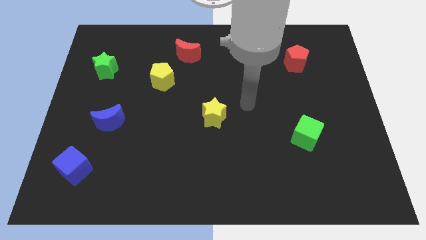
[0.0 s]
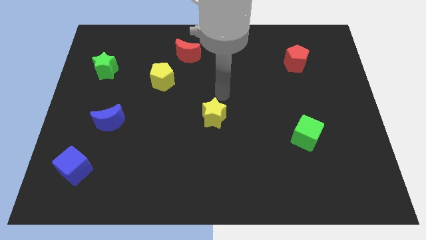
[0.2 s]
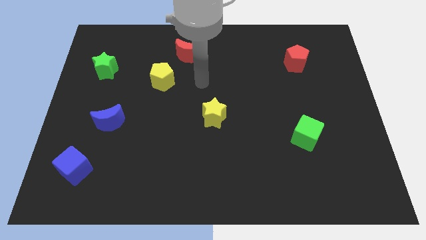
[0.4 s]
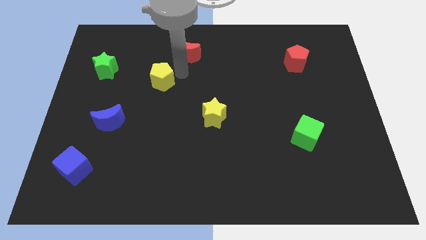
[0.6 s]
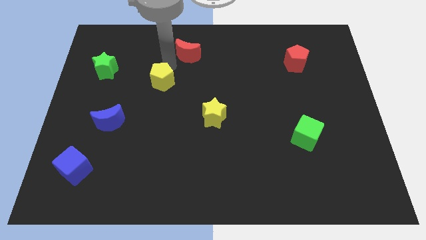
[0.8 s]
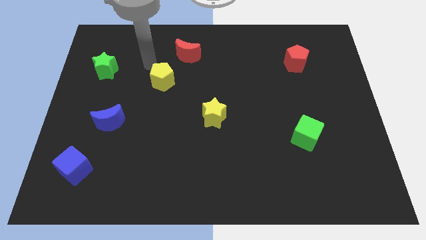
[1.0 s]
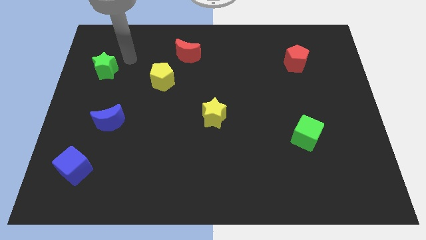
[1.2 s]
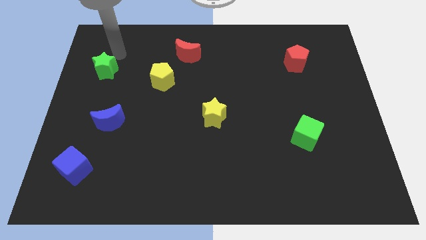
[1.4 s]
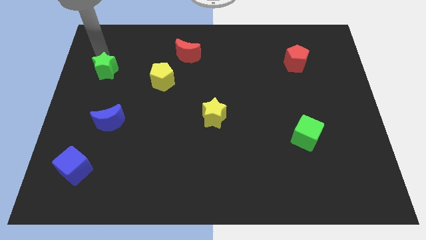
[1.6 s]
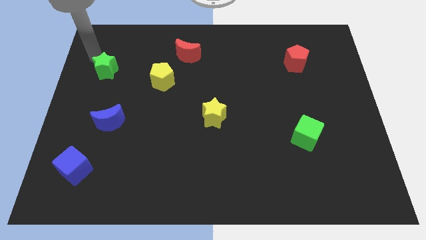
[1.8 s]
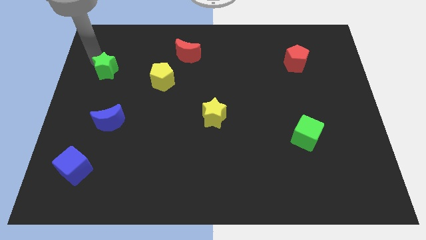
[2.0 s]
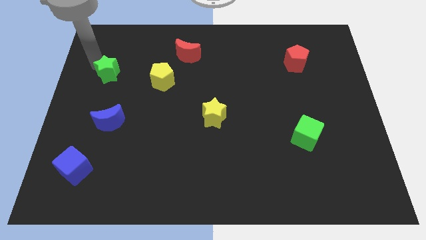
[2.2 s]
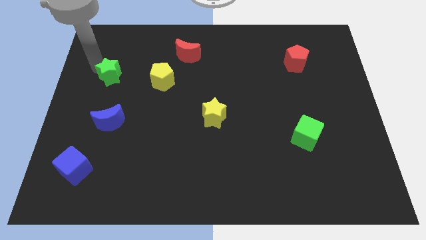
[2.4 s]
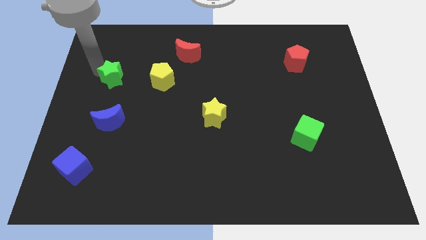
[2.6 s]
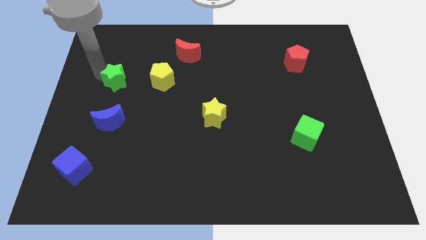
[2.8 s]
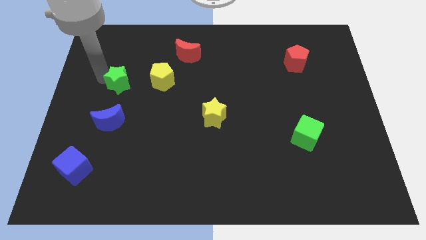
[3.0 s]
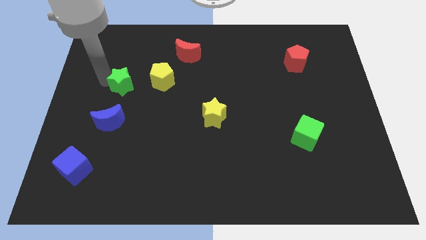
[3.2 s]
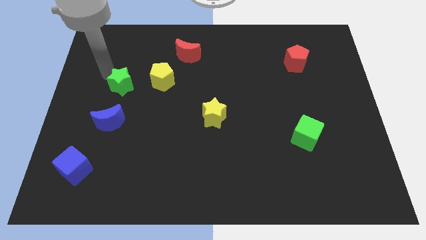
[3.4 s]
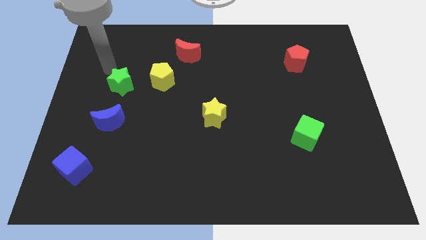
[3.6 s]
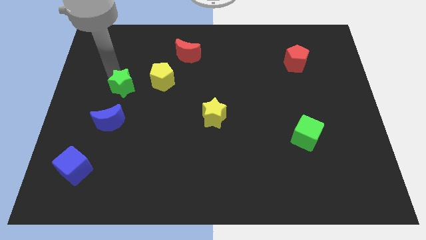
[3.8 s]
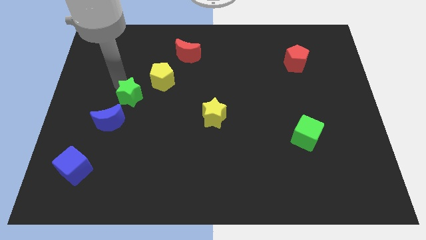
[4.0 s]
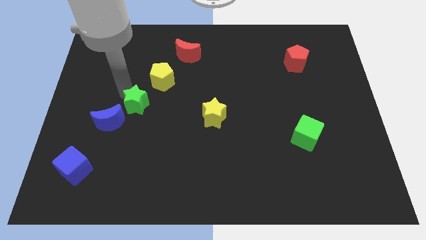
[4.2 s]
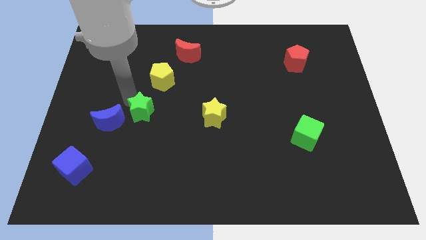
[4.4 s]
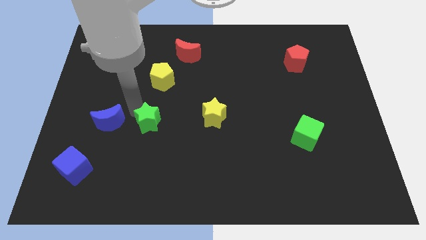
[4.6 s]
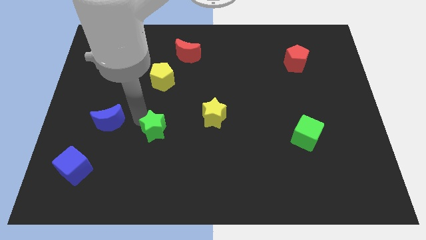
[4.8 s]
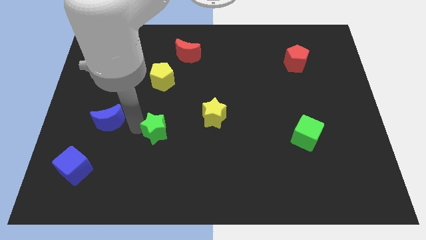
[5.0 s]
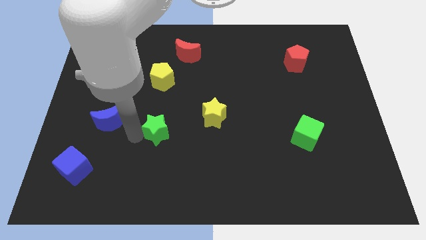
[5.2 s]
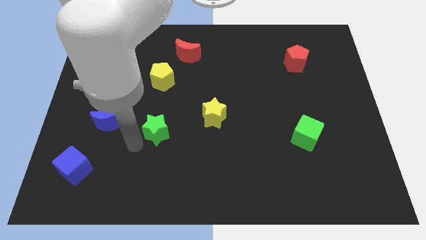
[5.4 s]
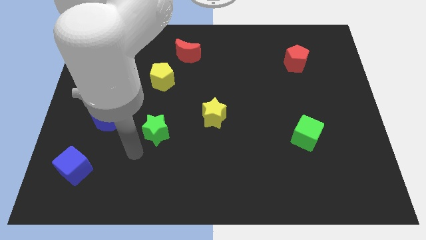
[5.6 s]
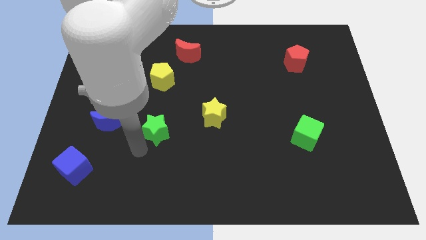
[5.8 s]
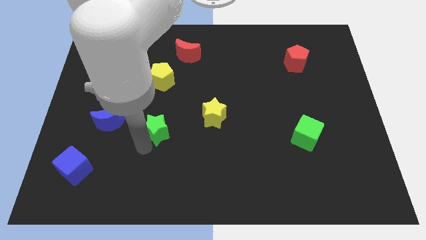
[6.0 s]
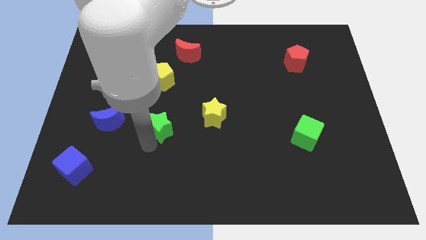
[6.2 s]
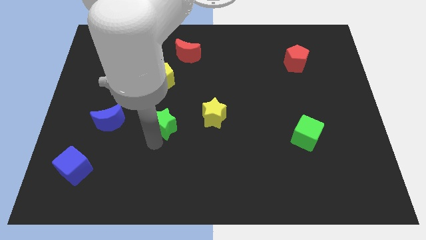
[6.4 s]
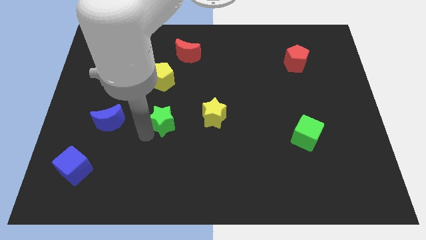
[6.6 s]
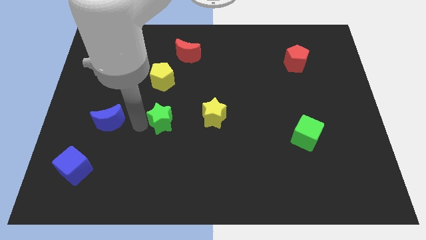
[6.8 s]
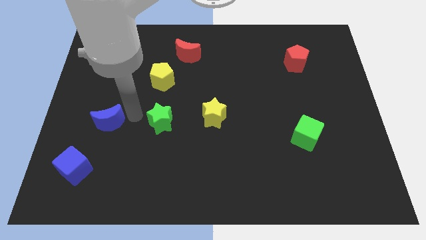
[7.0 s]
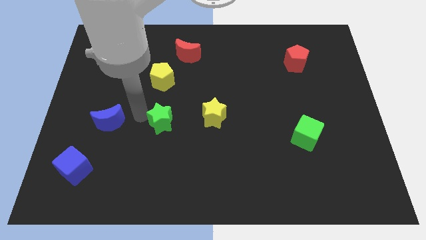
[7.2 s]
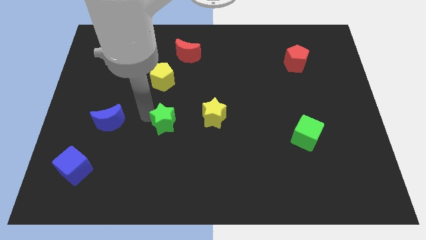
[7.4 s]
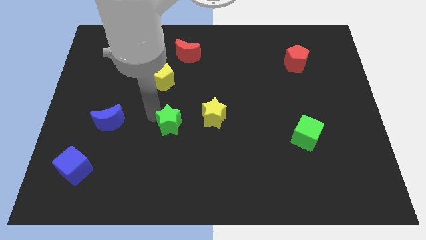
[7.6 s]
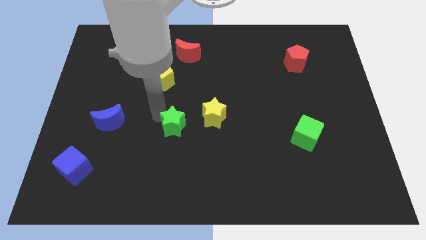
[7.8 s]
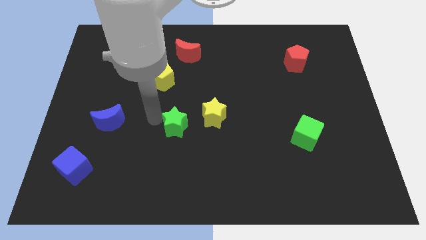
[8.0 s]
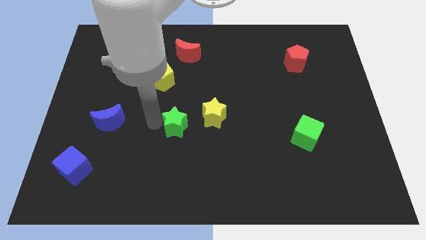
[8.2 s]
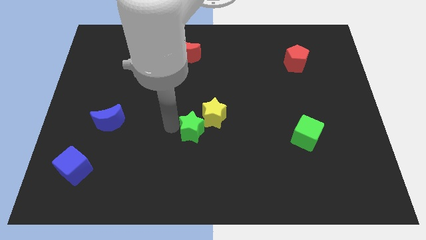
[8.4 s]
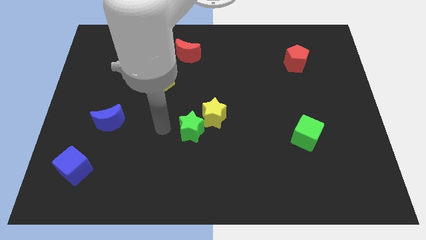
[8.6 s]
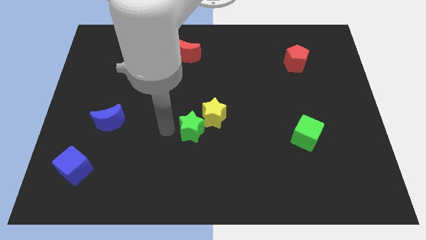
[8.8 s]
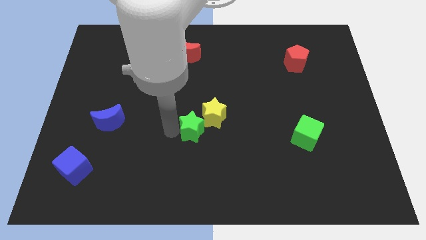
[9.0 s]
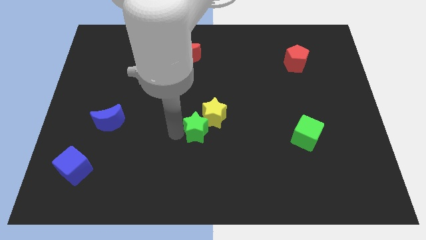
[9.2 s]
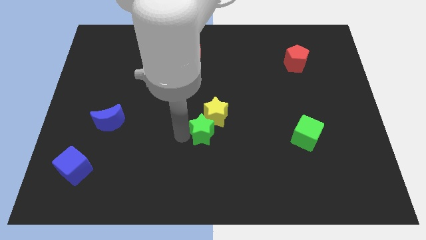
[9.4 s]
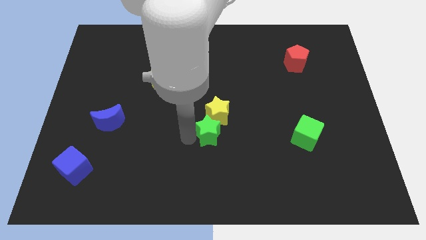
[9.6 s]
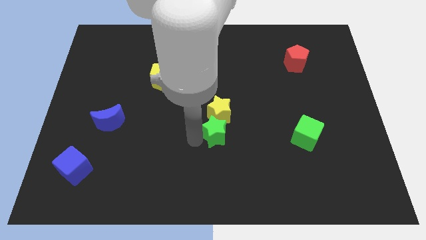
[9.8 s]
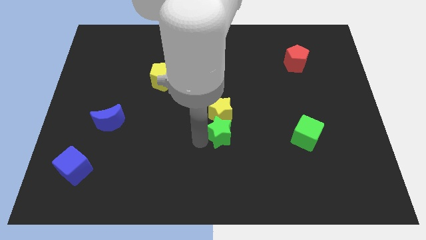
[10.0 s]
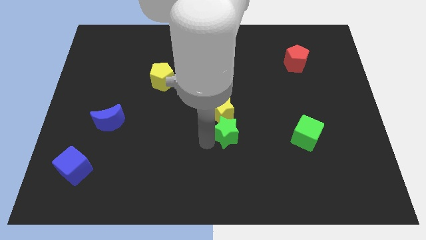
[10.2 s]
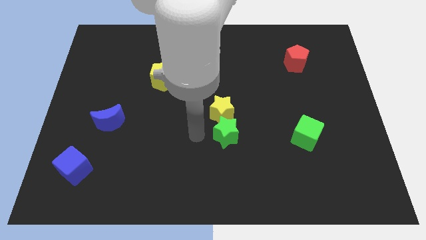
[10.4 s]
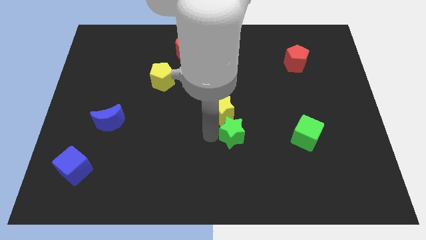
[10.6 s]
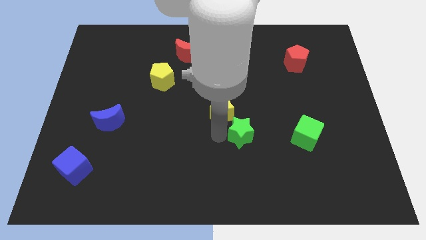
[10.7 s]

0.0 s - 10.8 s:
push the green star to the left of the green cube

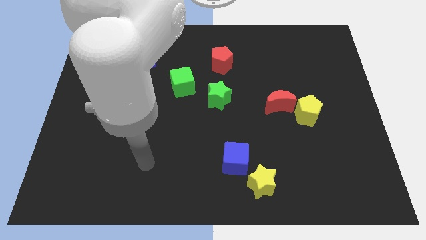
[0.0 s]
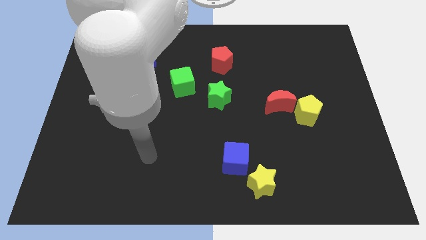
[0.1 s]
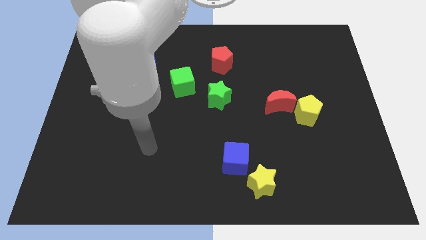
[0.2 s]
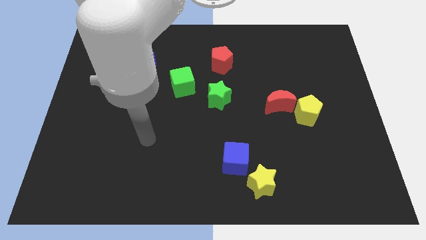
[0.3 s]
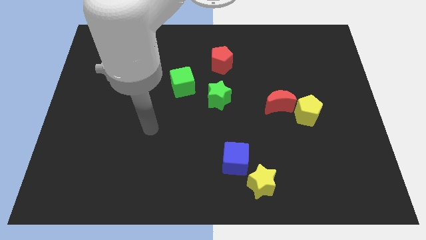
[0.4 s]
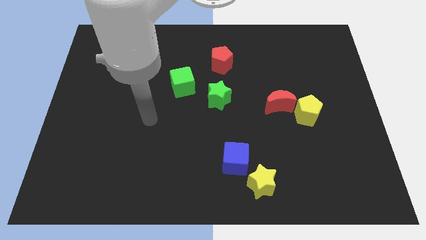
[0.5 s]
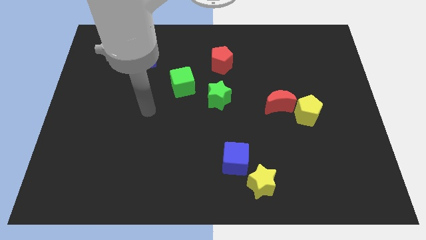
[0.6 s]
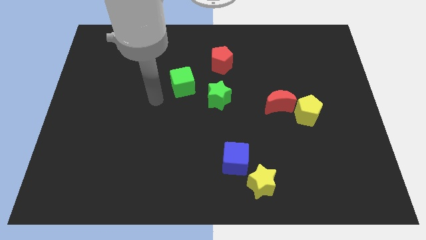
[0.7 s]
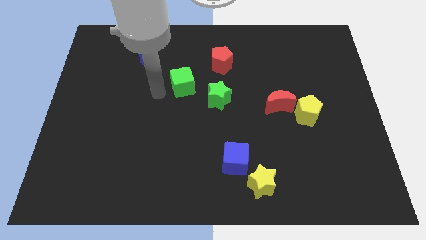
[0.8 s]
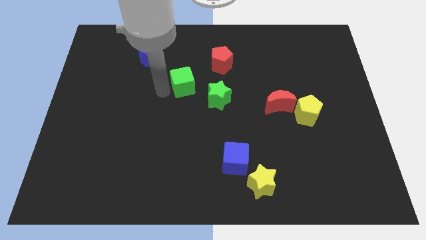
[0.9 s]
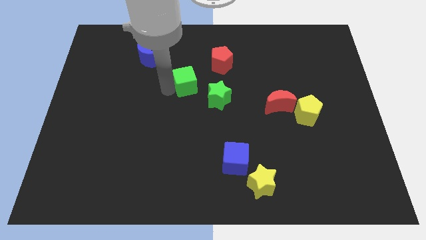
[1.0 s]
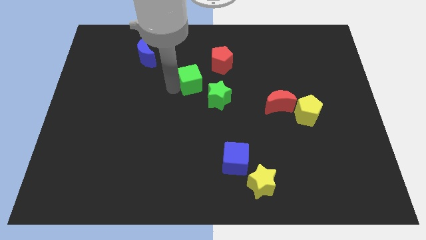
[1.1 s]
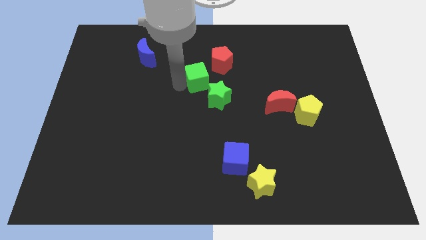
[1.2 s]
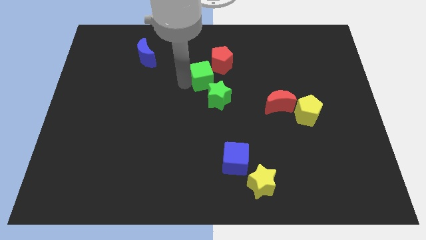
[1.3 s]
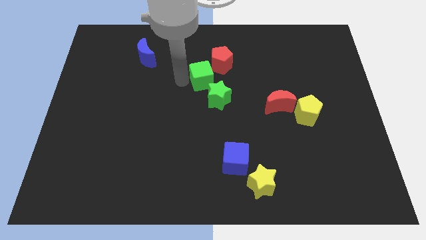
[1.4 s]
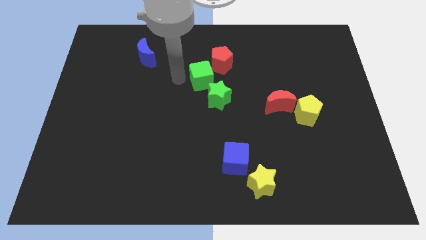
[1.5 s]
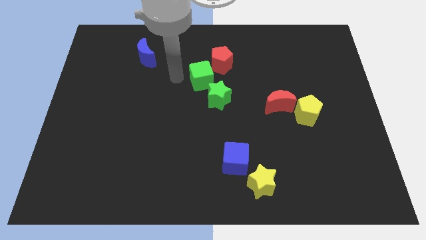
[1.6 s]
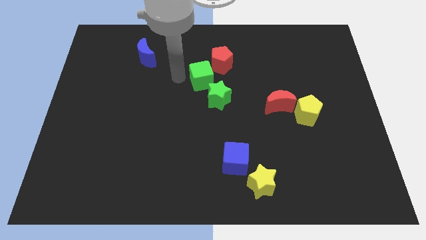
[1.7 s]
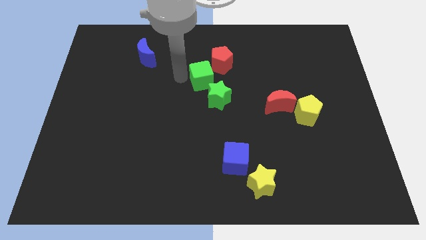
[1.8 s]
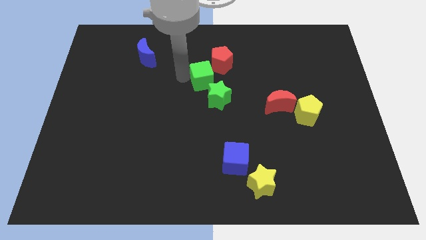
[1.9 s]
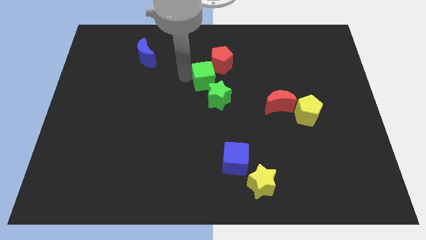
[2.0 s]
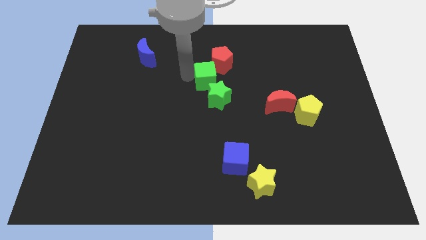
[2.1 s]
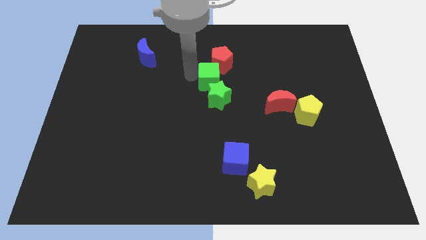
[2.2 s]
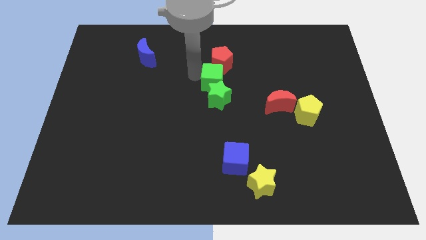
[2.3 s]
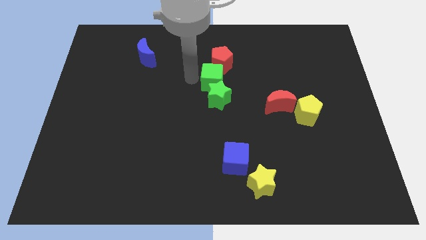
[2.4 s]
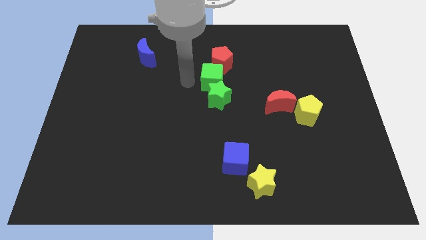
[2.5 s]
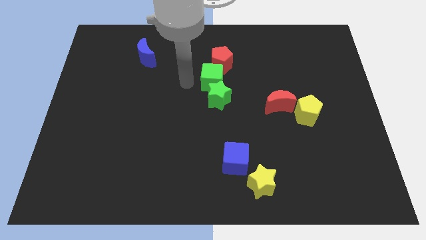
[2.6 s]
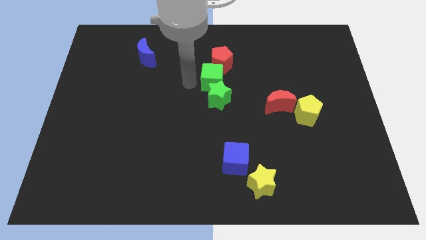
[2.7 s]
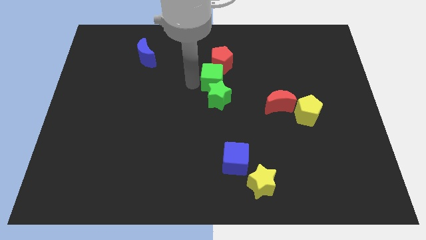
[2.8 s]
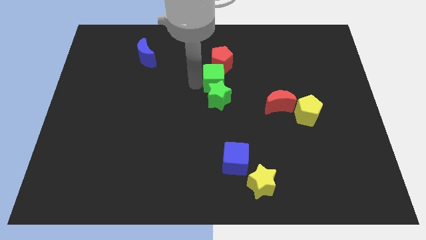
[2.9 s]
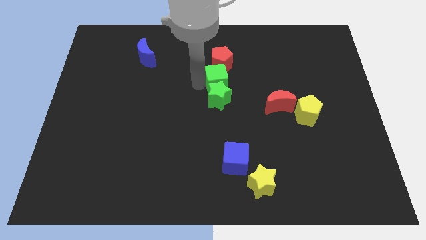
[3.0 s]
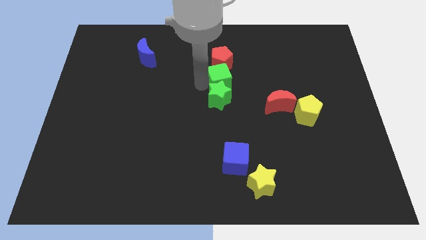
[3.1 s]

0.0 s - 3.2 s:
push the green cube to the bottom right side of the red pentagon
